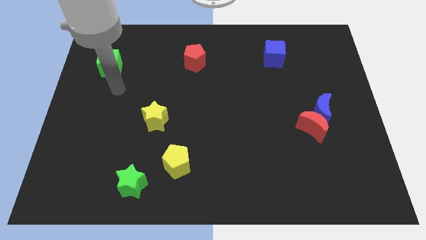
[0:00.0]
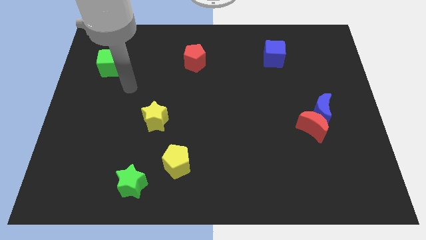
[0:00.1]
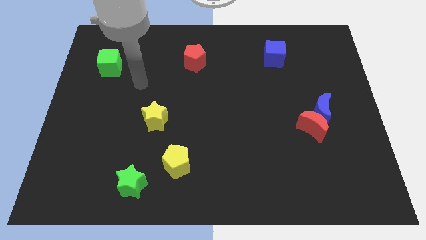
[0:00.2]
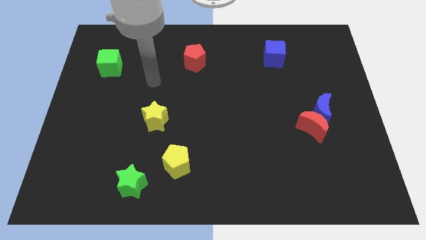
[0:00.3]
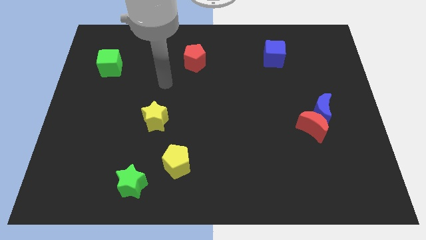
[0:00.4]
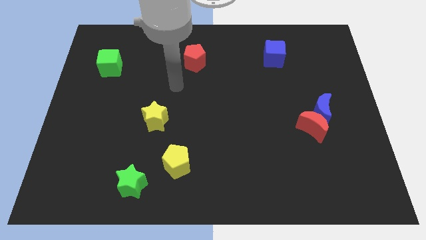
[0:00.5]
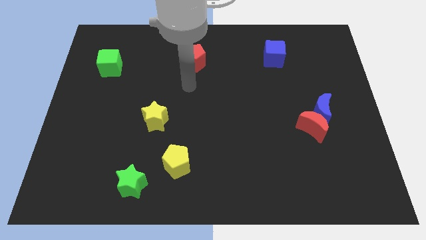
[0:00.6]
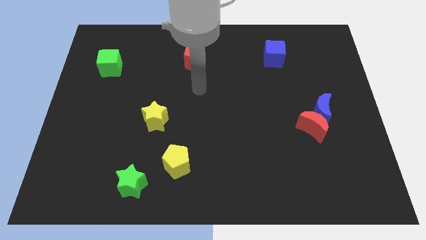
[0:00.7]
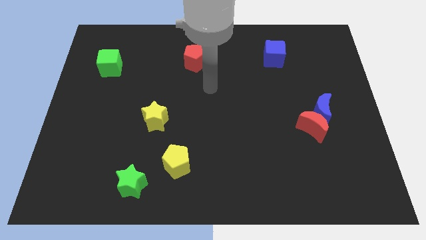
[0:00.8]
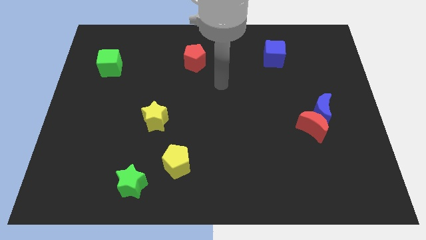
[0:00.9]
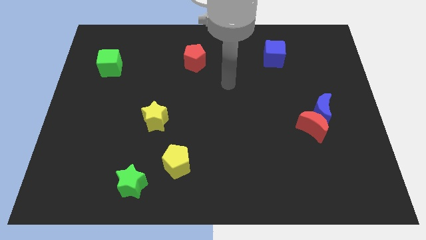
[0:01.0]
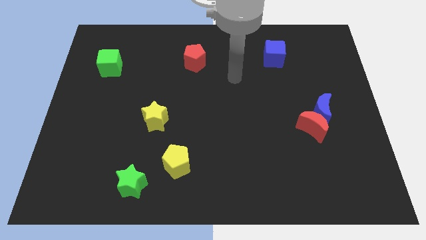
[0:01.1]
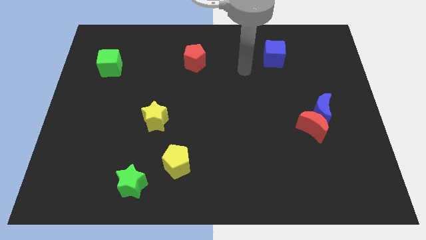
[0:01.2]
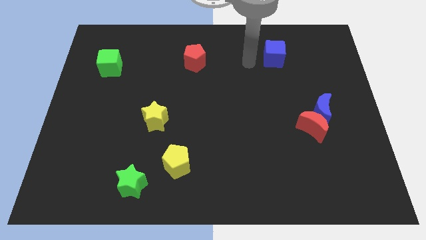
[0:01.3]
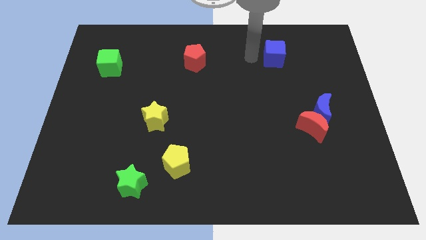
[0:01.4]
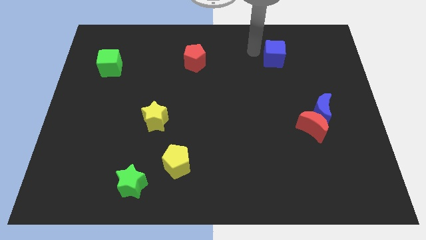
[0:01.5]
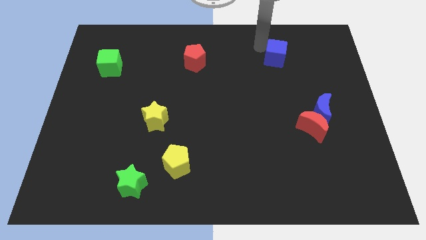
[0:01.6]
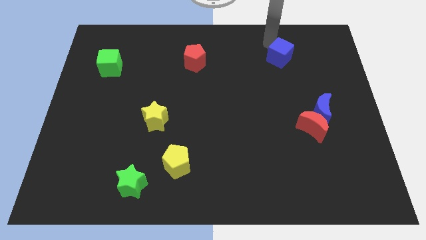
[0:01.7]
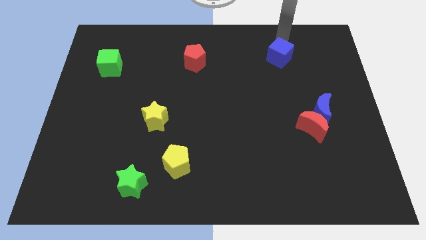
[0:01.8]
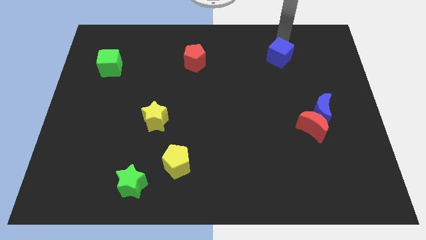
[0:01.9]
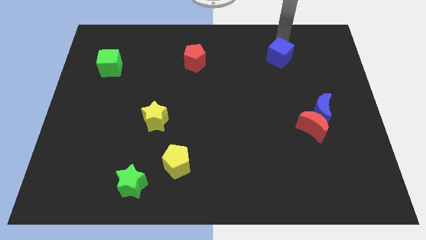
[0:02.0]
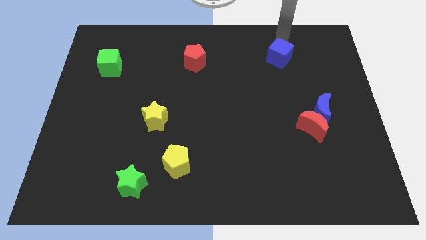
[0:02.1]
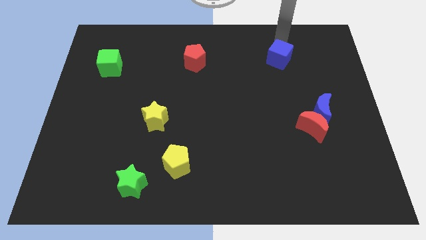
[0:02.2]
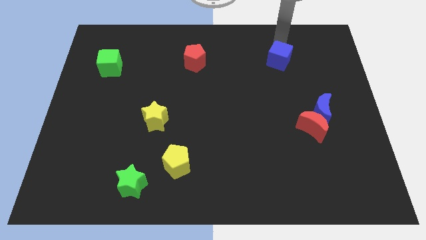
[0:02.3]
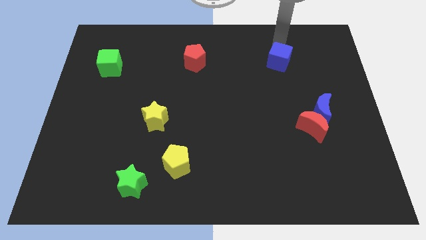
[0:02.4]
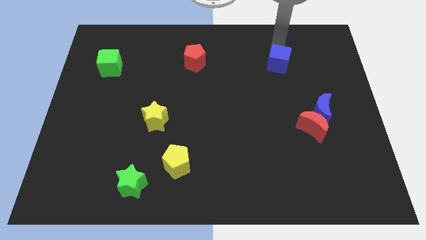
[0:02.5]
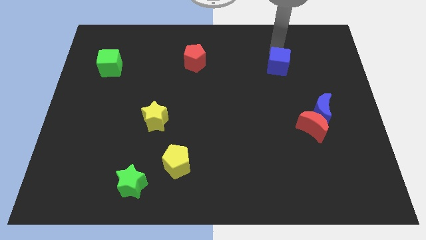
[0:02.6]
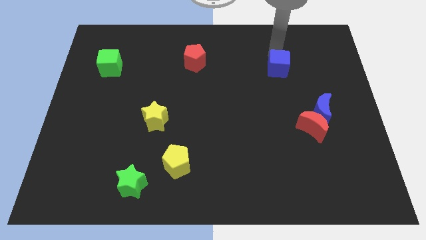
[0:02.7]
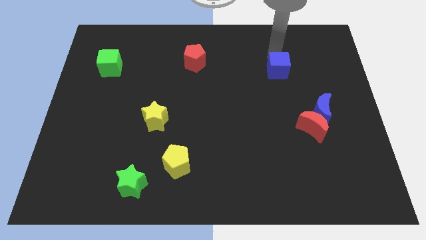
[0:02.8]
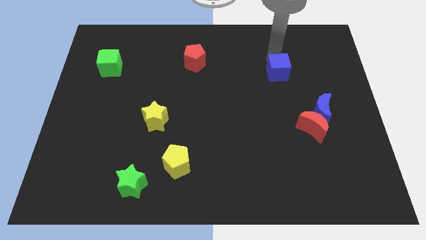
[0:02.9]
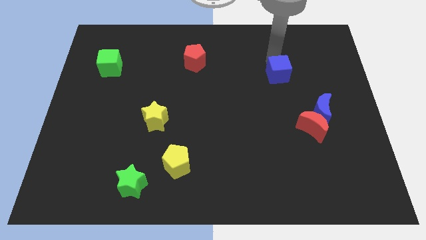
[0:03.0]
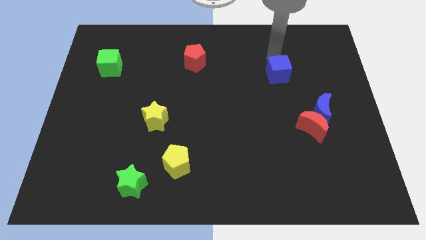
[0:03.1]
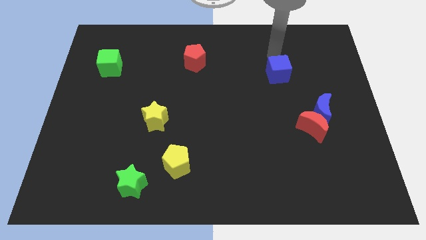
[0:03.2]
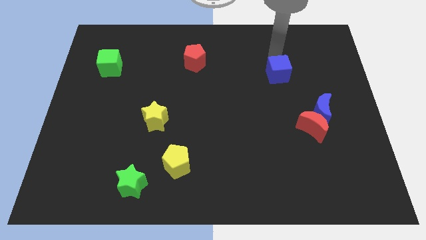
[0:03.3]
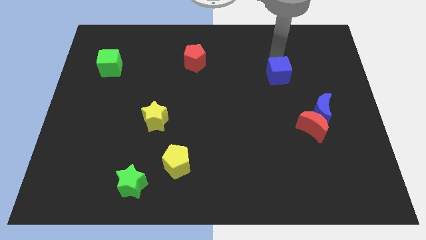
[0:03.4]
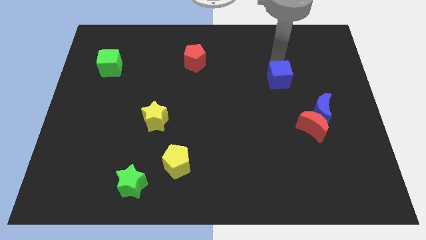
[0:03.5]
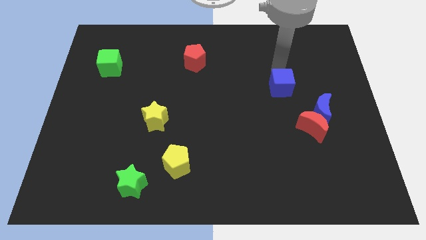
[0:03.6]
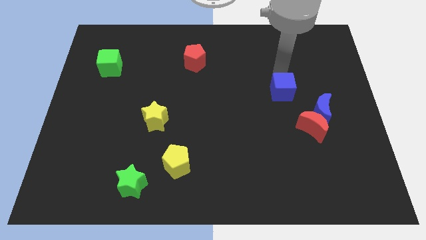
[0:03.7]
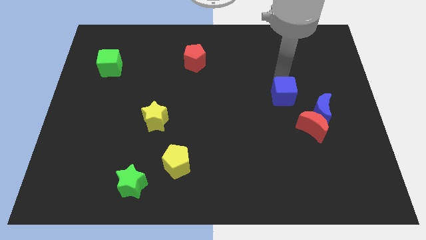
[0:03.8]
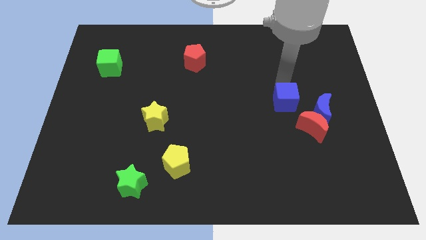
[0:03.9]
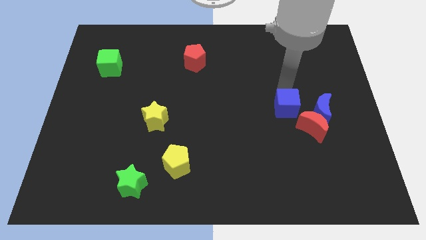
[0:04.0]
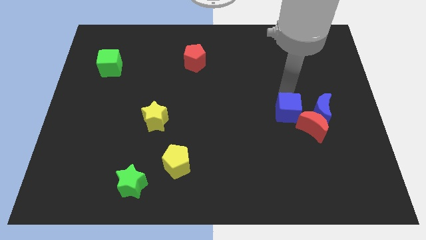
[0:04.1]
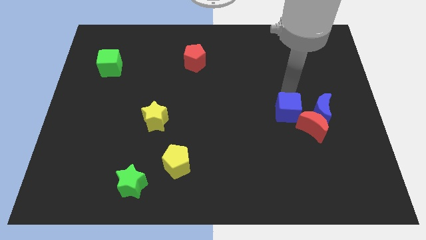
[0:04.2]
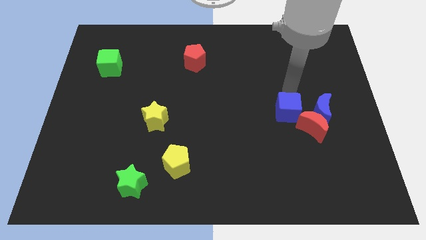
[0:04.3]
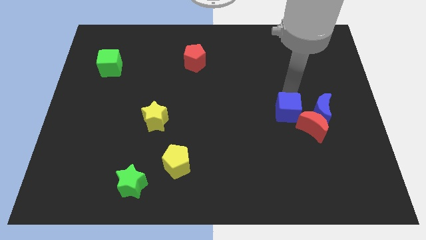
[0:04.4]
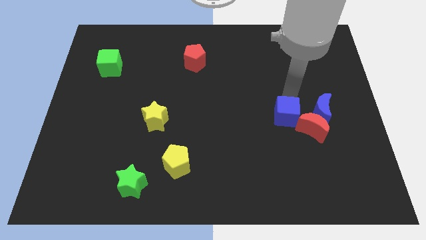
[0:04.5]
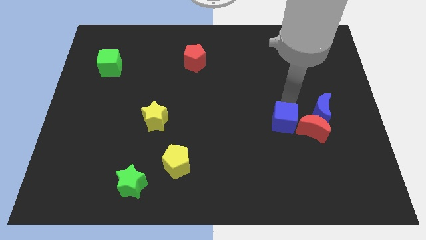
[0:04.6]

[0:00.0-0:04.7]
move the blue cube down

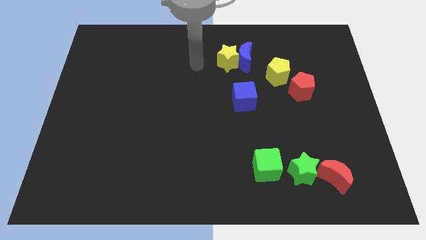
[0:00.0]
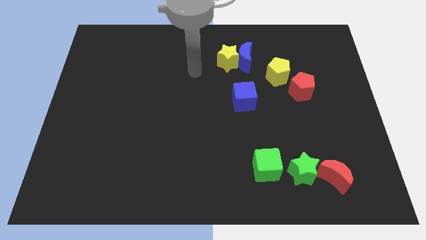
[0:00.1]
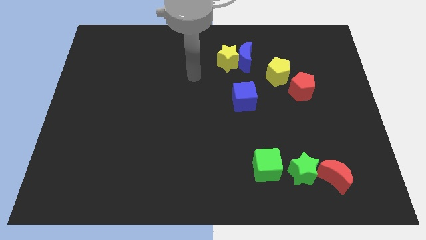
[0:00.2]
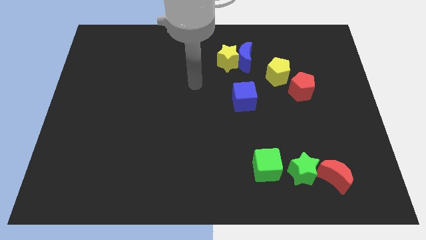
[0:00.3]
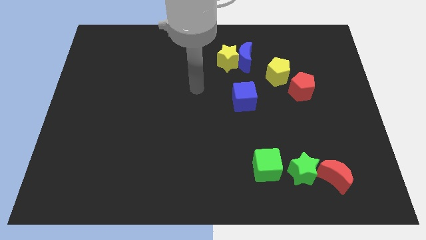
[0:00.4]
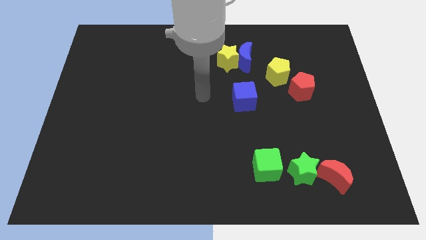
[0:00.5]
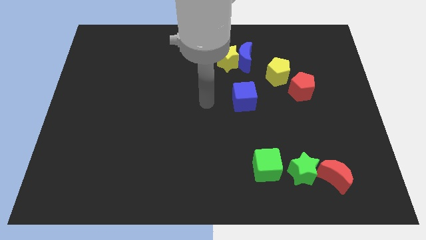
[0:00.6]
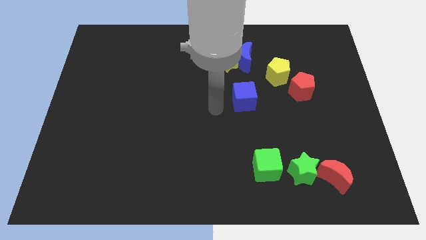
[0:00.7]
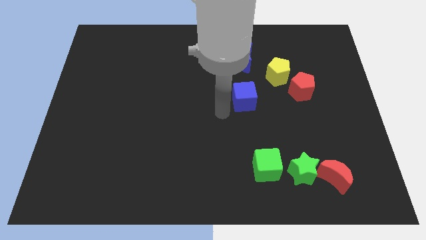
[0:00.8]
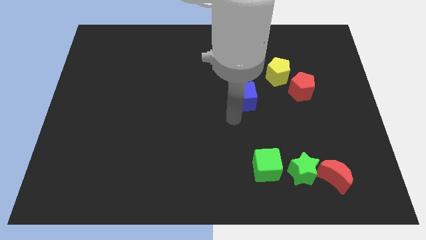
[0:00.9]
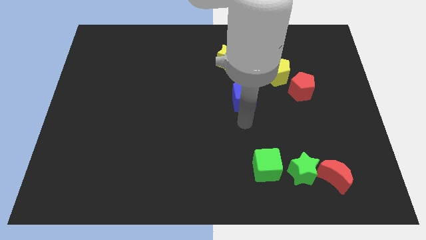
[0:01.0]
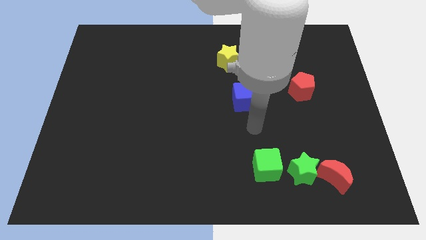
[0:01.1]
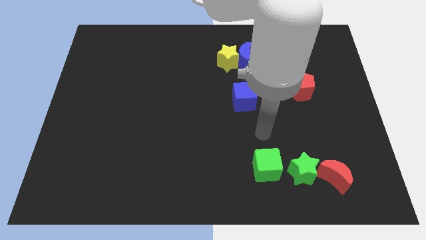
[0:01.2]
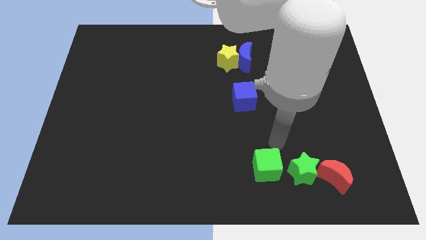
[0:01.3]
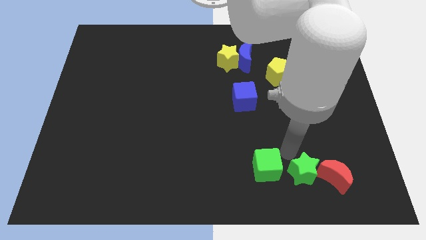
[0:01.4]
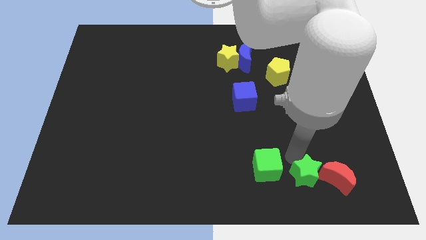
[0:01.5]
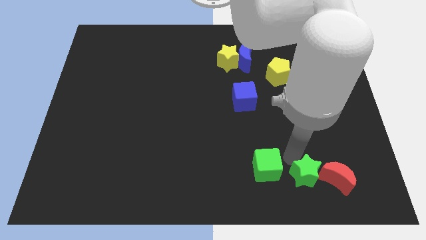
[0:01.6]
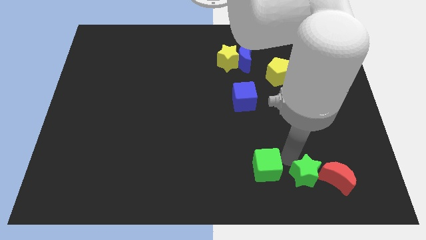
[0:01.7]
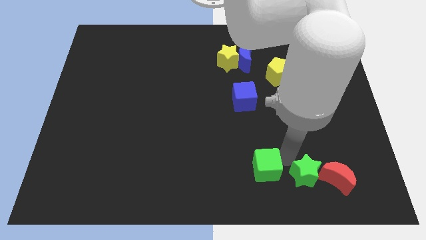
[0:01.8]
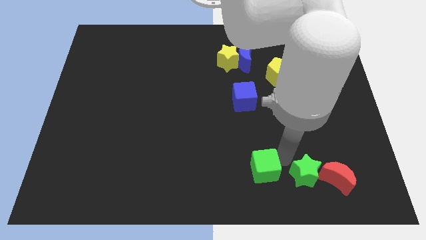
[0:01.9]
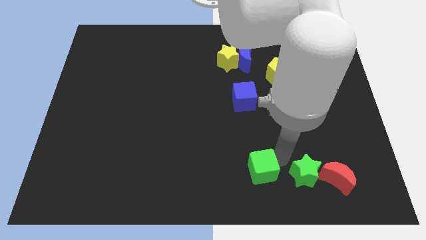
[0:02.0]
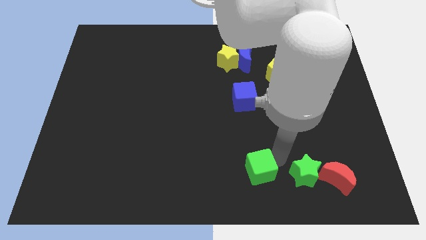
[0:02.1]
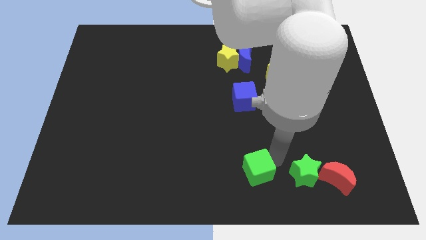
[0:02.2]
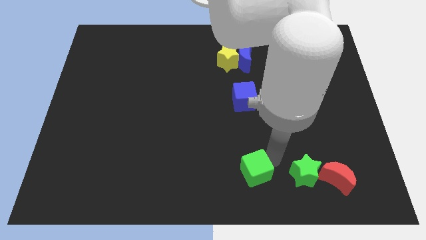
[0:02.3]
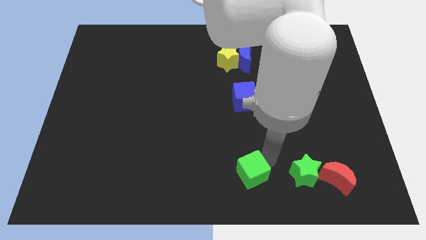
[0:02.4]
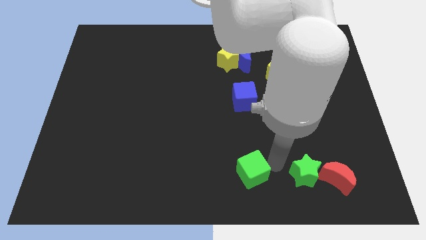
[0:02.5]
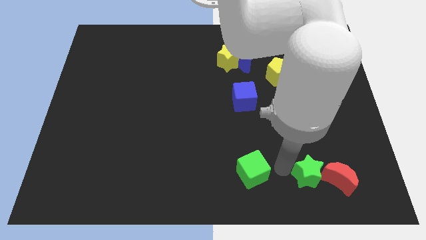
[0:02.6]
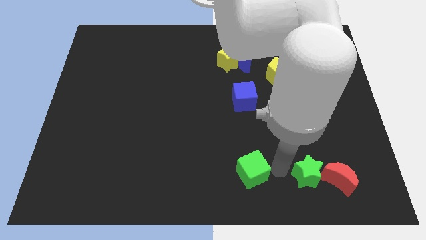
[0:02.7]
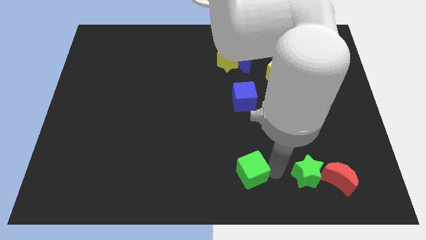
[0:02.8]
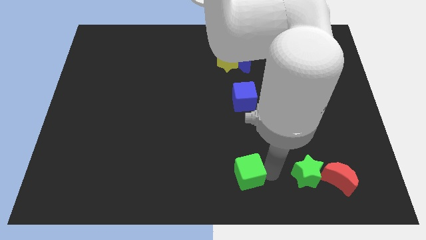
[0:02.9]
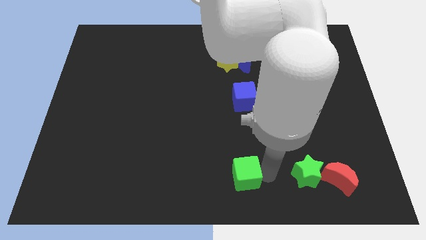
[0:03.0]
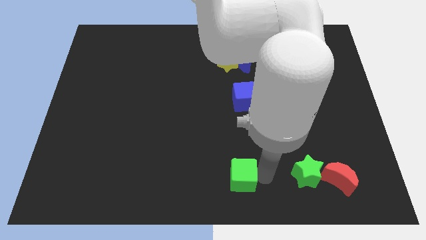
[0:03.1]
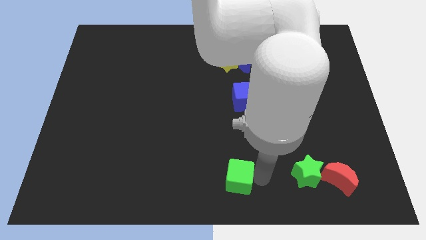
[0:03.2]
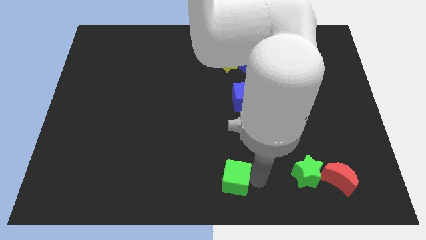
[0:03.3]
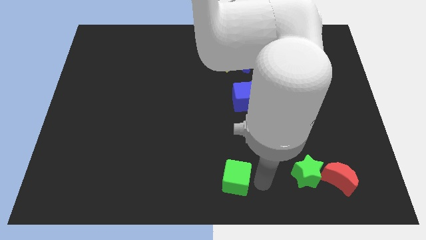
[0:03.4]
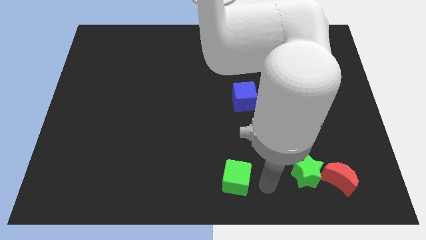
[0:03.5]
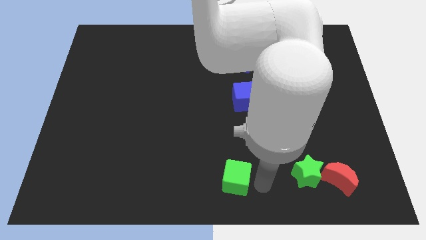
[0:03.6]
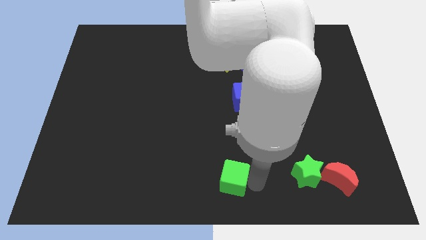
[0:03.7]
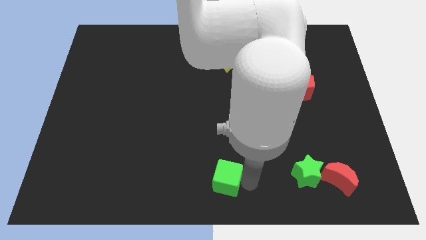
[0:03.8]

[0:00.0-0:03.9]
push the green cube a little left
